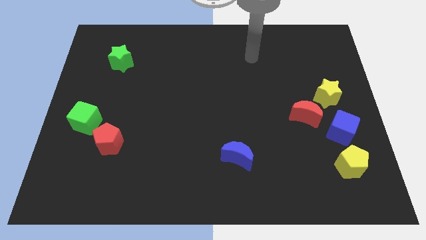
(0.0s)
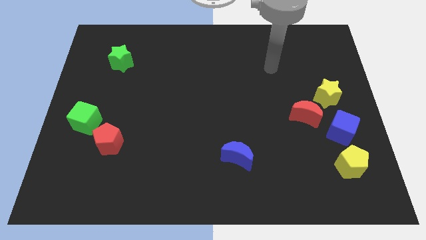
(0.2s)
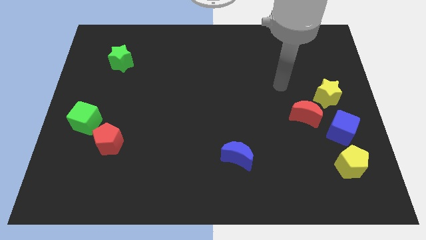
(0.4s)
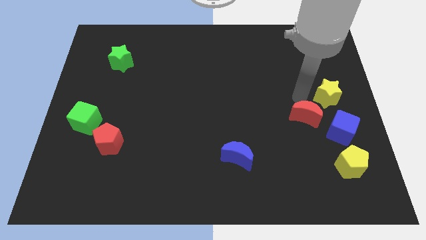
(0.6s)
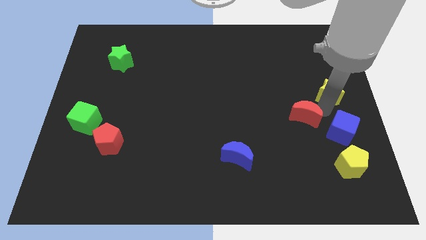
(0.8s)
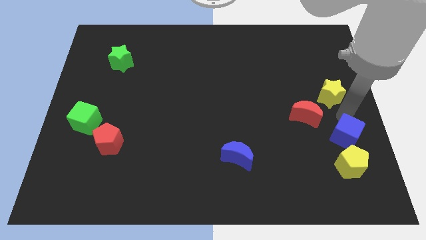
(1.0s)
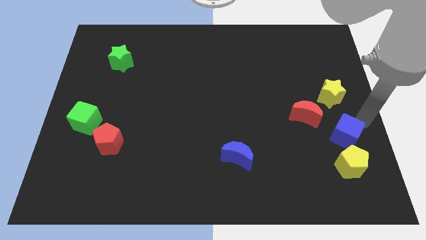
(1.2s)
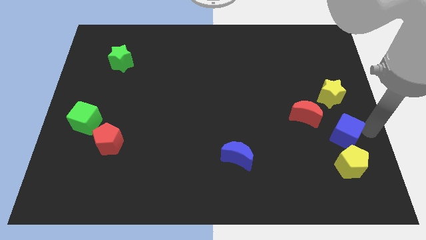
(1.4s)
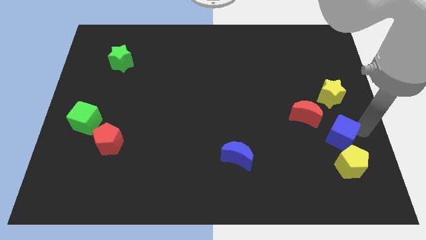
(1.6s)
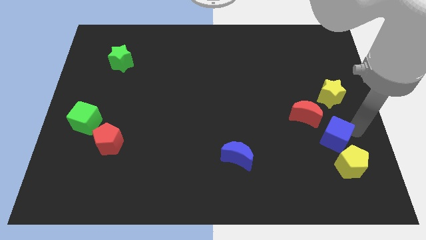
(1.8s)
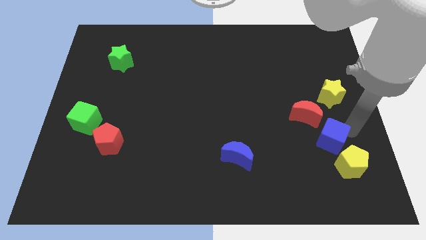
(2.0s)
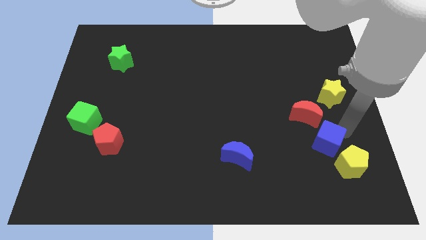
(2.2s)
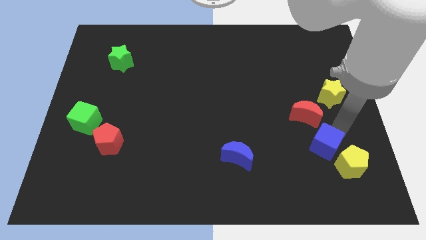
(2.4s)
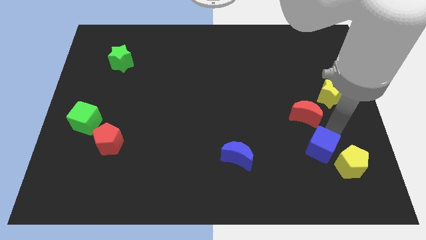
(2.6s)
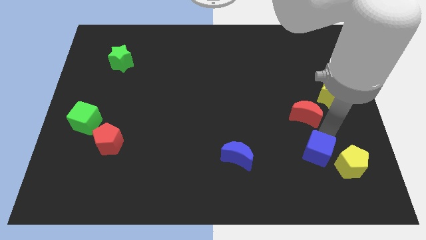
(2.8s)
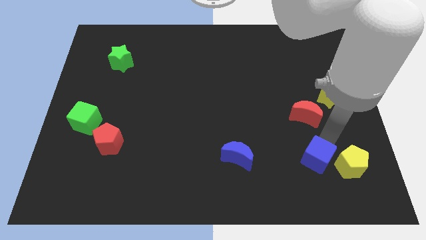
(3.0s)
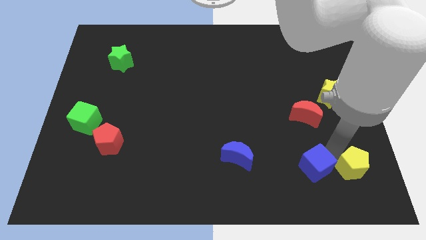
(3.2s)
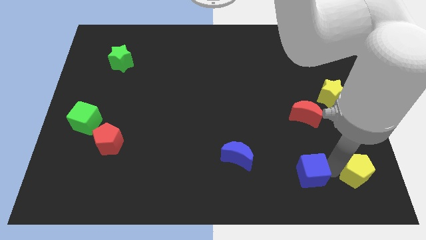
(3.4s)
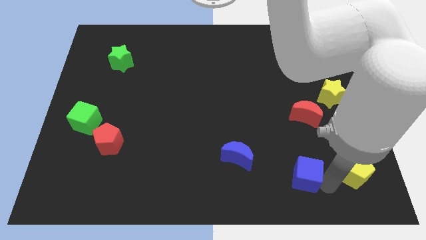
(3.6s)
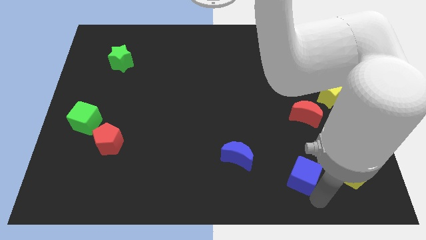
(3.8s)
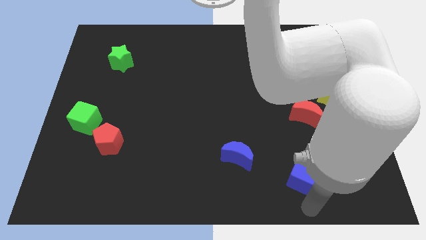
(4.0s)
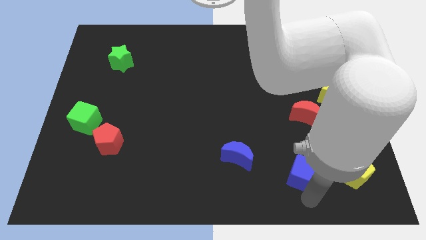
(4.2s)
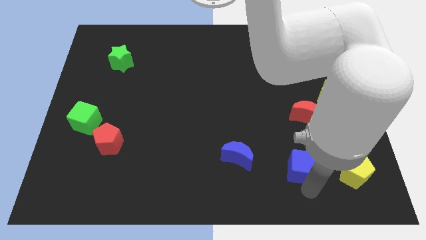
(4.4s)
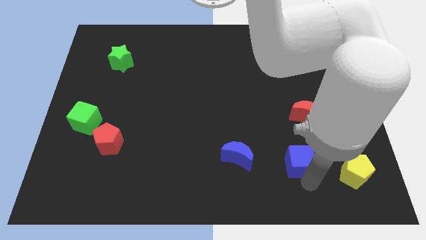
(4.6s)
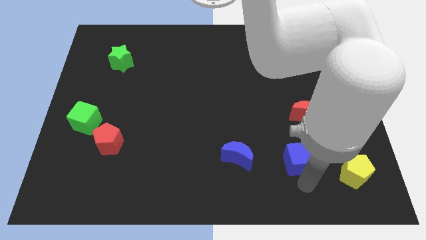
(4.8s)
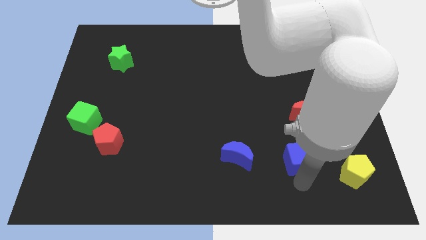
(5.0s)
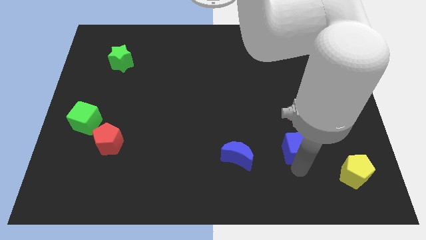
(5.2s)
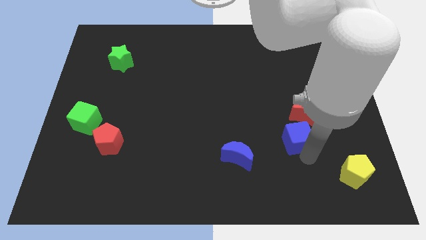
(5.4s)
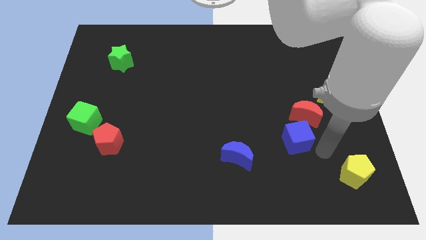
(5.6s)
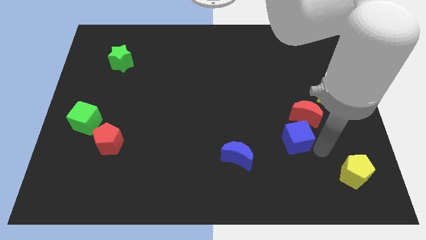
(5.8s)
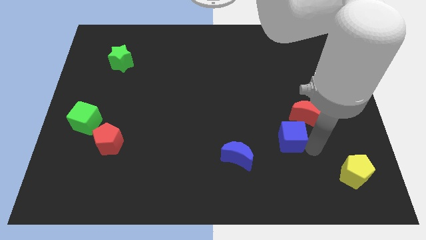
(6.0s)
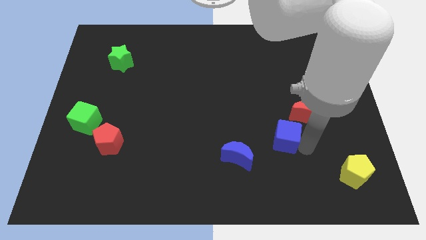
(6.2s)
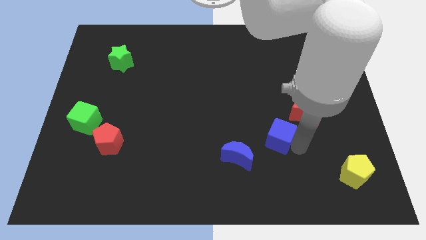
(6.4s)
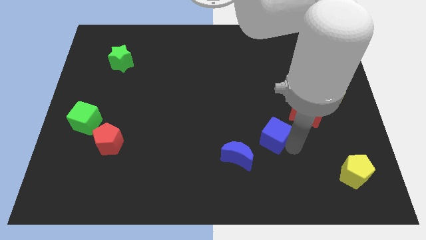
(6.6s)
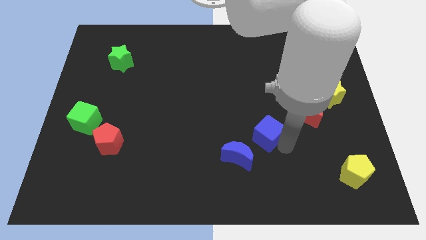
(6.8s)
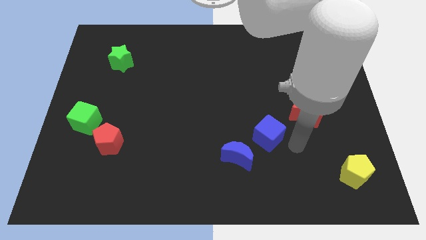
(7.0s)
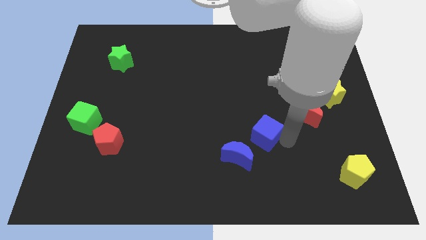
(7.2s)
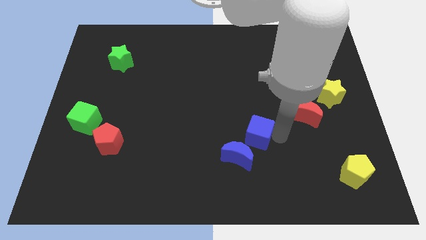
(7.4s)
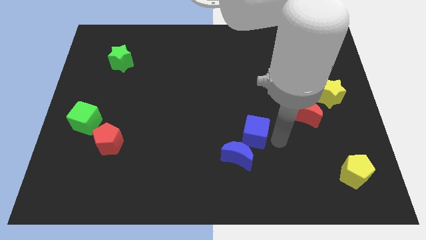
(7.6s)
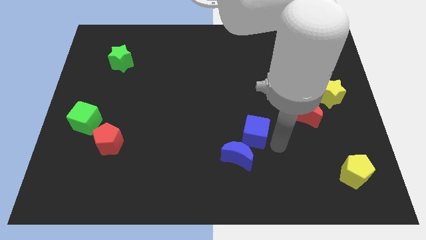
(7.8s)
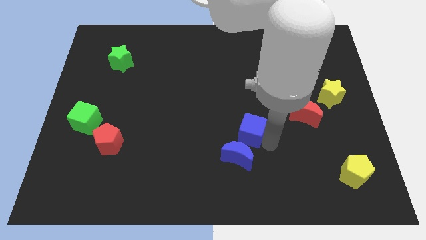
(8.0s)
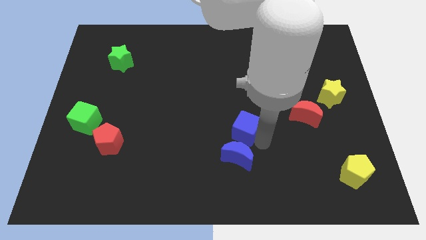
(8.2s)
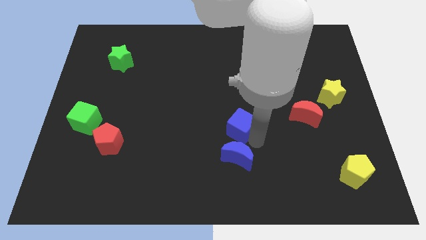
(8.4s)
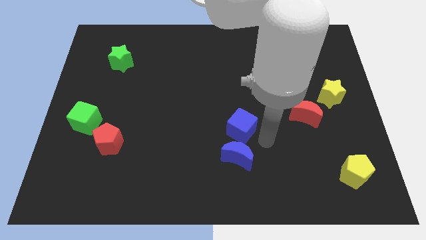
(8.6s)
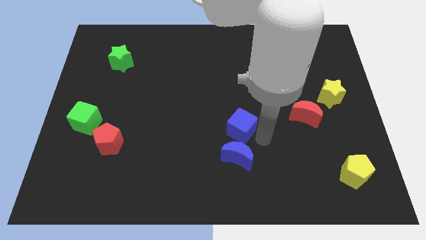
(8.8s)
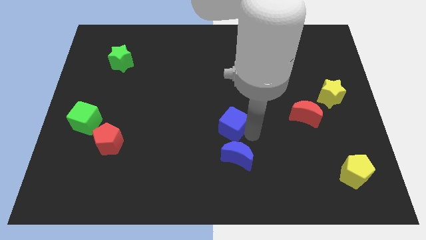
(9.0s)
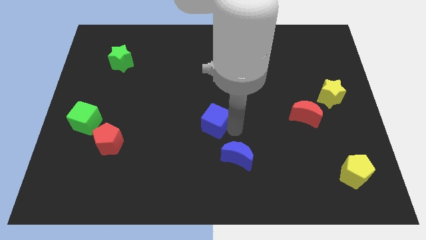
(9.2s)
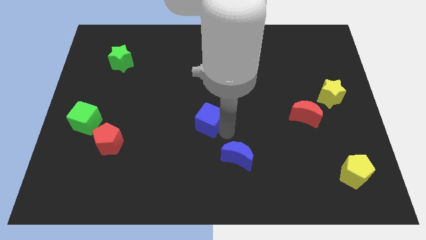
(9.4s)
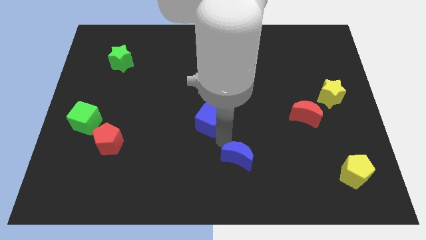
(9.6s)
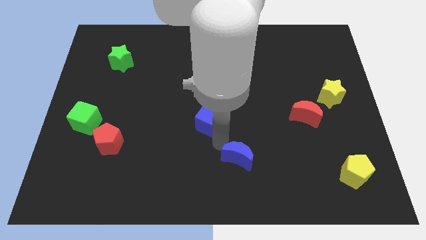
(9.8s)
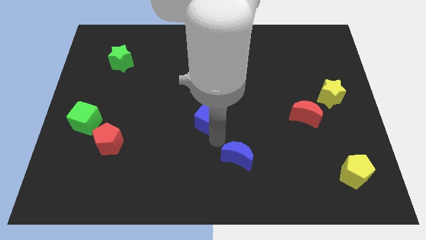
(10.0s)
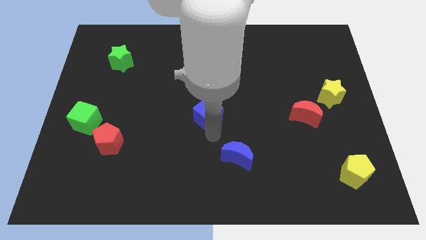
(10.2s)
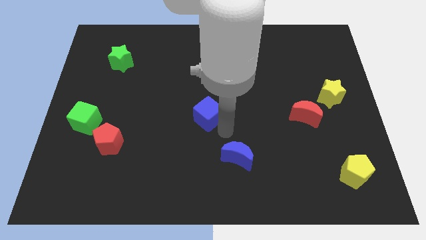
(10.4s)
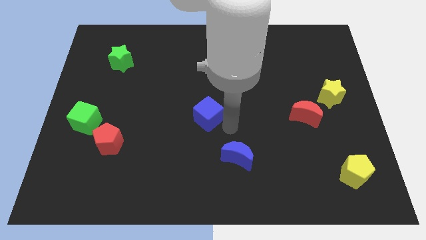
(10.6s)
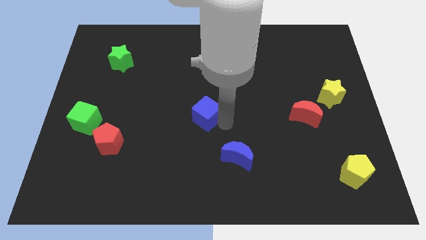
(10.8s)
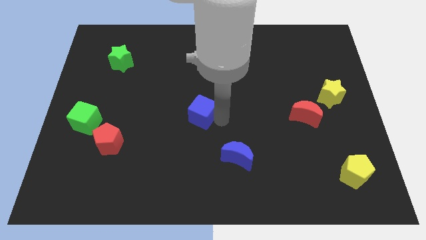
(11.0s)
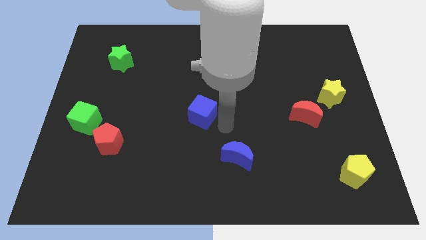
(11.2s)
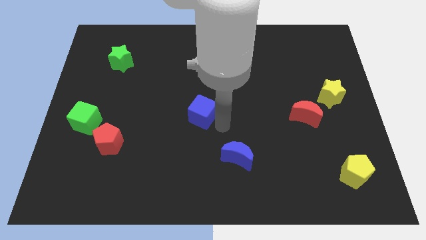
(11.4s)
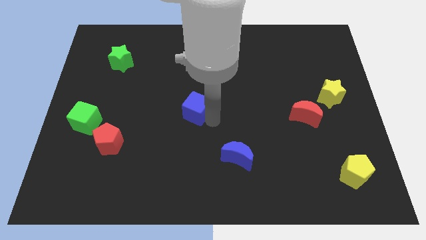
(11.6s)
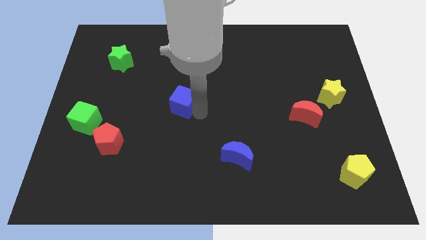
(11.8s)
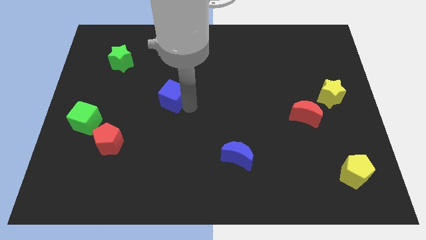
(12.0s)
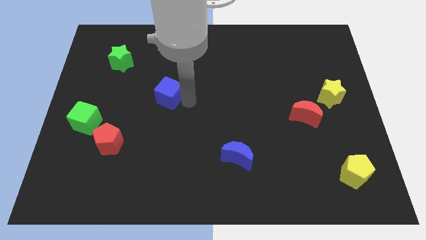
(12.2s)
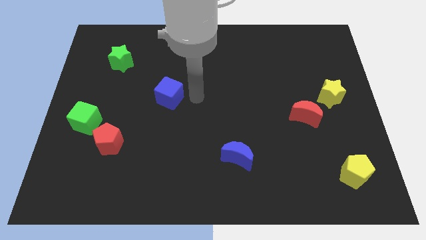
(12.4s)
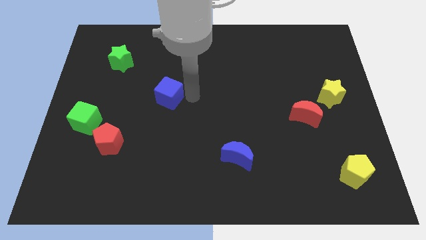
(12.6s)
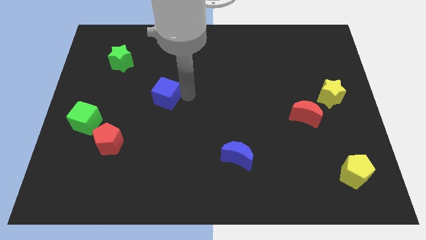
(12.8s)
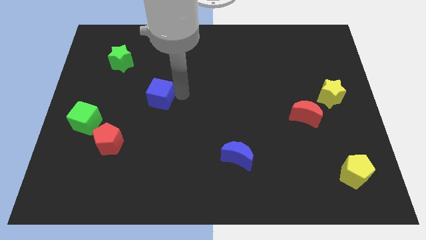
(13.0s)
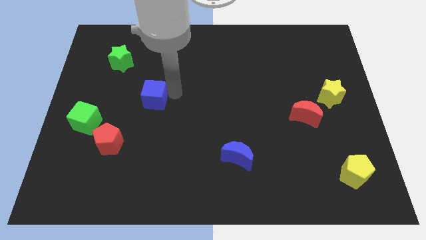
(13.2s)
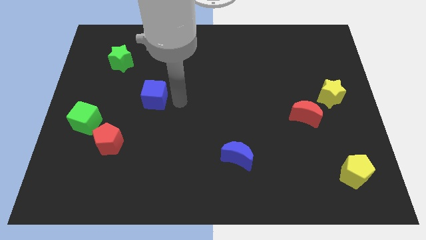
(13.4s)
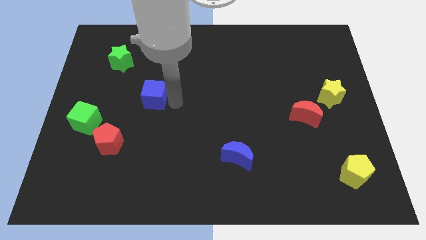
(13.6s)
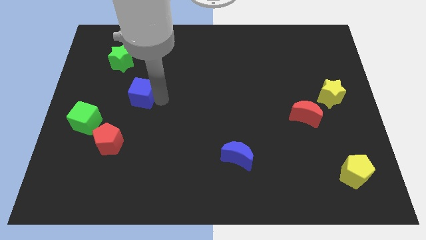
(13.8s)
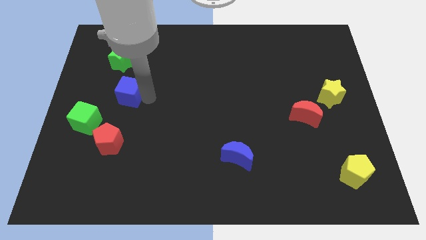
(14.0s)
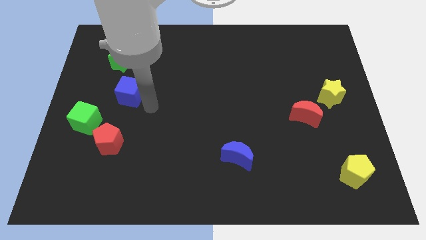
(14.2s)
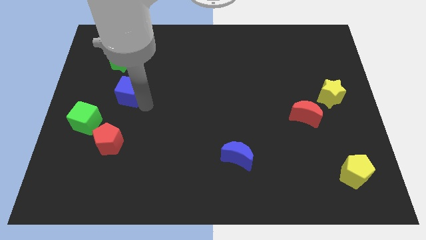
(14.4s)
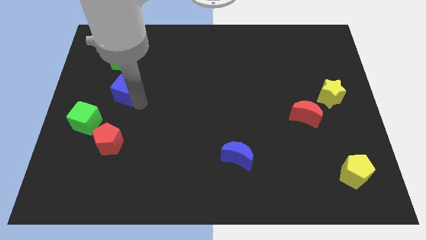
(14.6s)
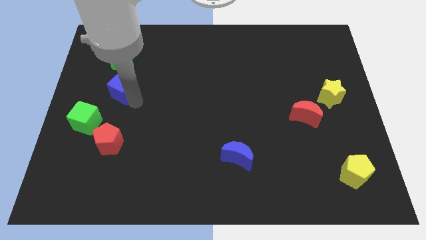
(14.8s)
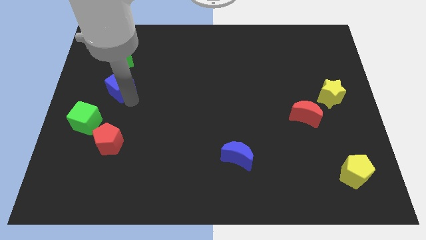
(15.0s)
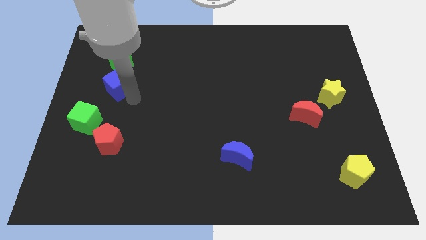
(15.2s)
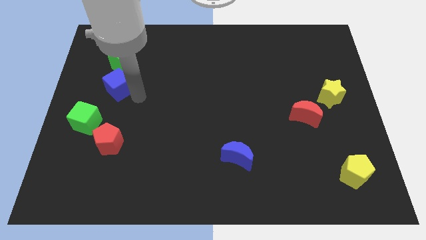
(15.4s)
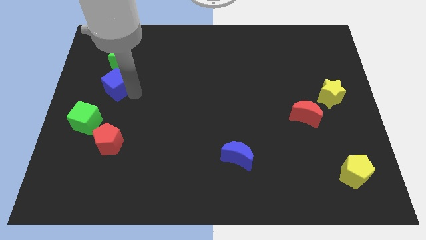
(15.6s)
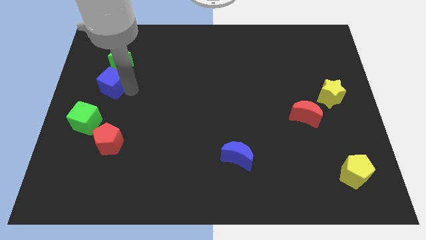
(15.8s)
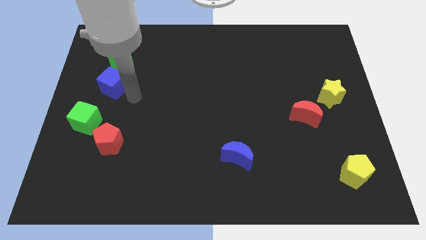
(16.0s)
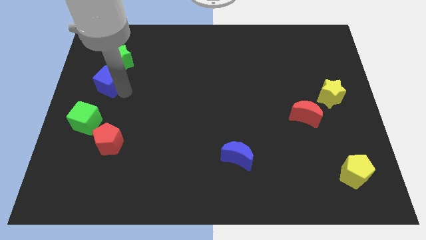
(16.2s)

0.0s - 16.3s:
move the blue cube to the bottom left side of the green star
